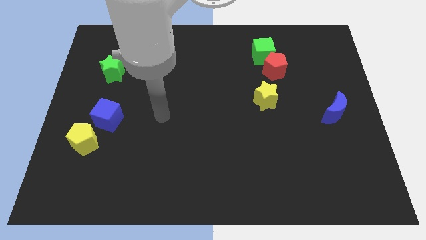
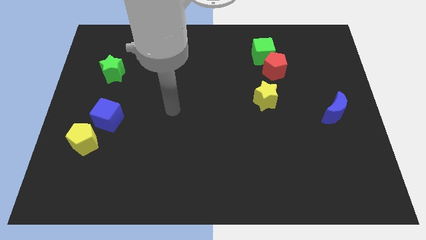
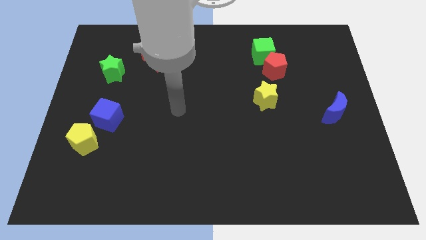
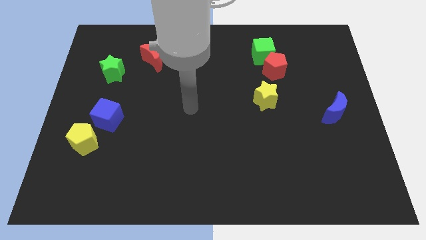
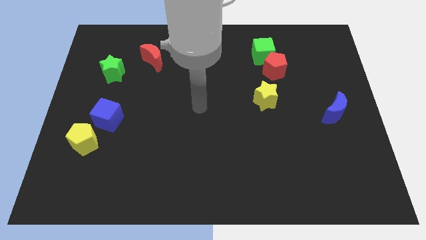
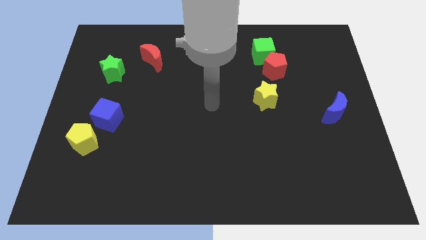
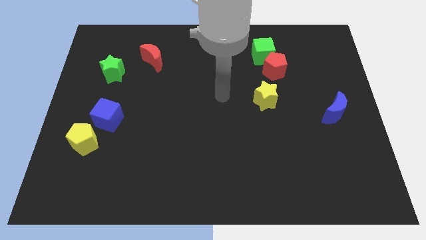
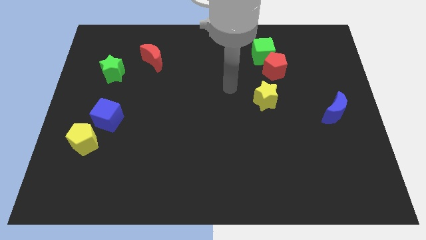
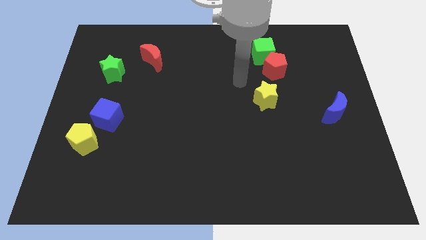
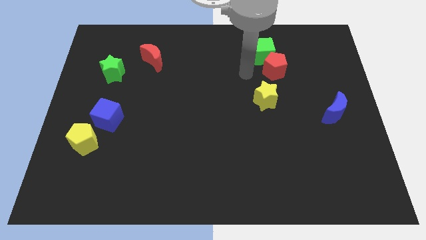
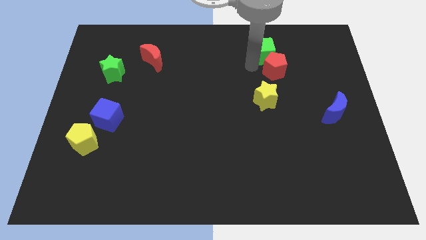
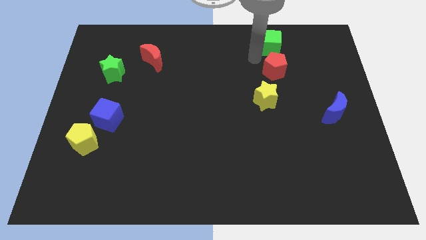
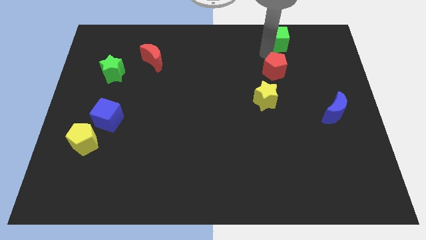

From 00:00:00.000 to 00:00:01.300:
pull the red pentagon apart from the green cube

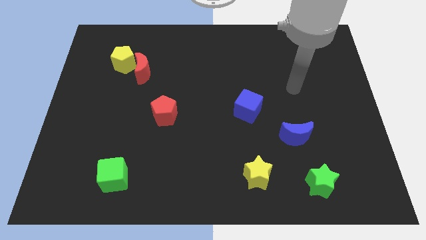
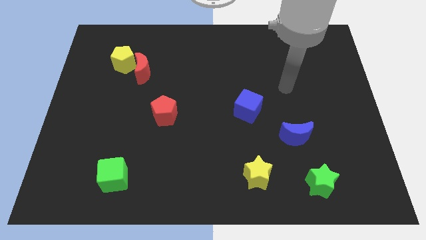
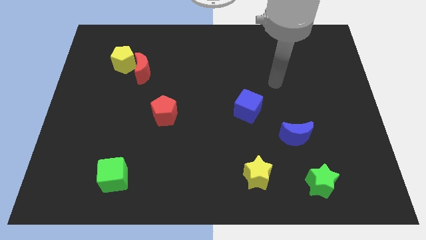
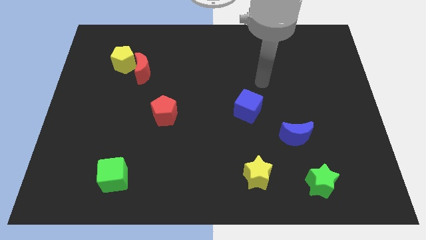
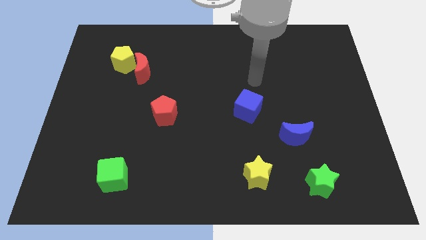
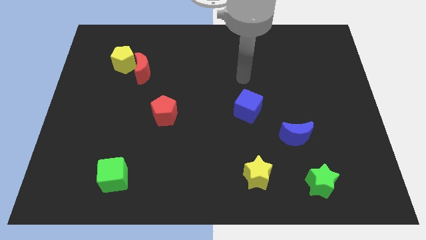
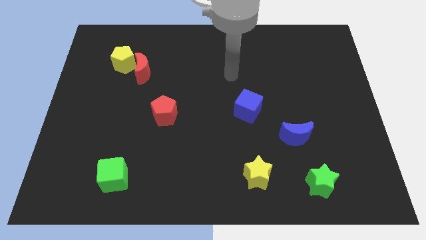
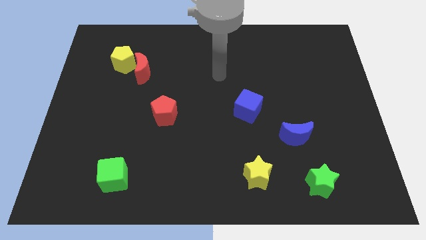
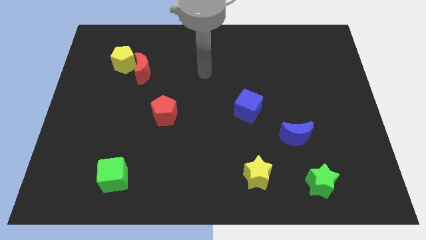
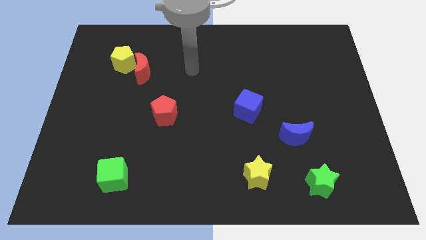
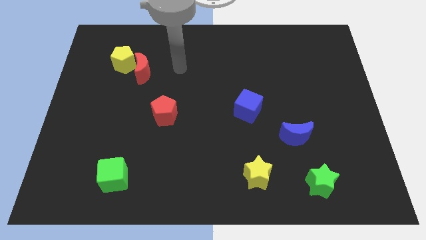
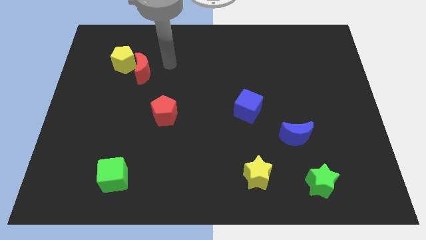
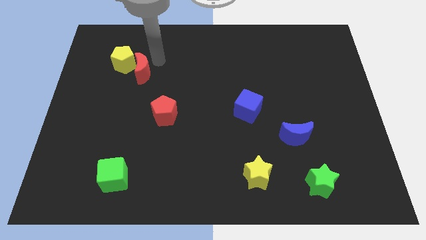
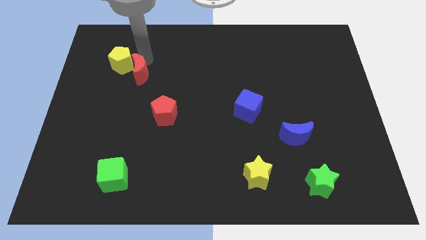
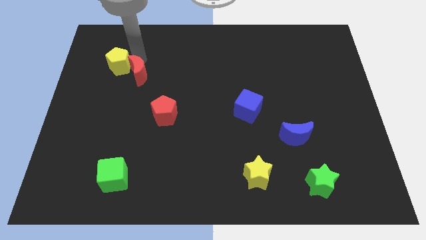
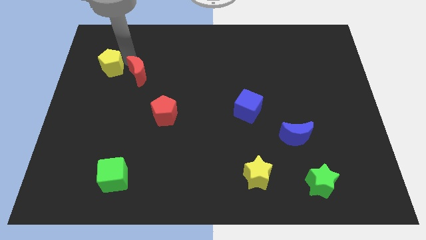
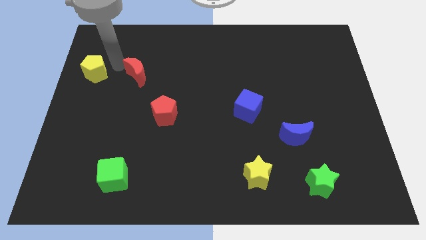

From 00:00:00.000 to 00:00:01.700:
move the red moon away from the yellow pentagon

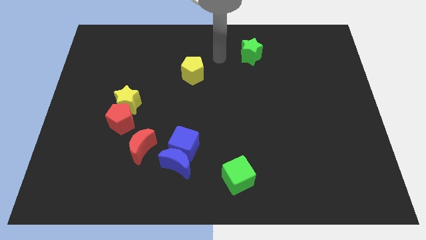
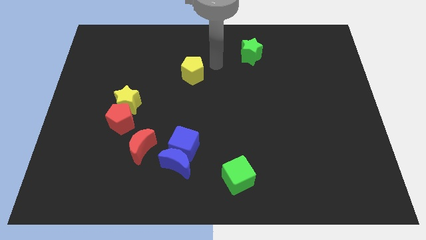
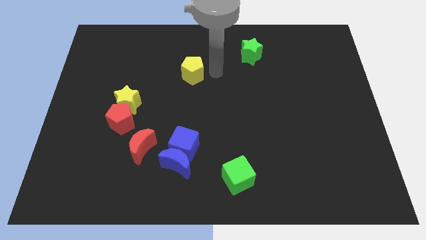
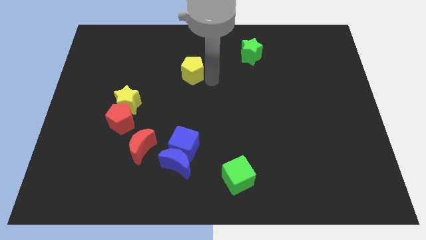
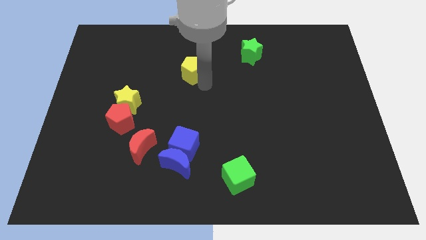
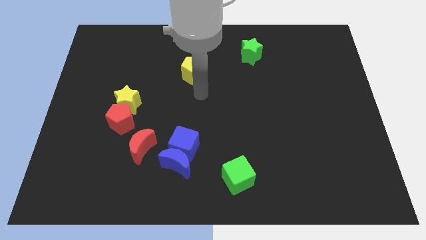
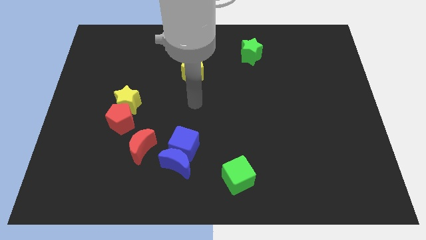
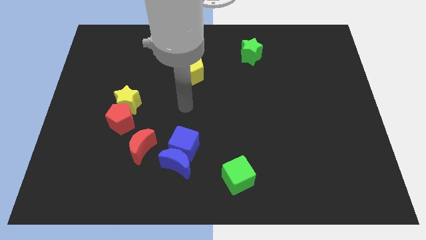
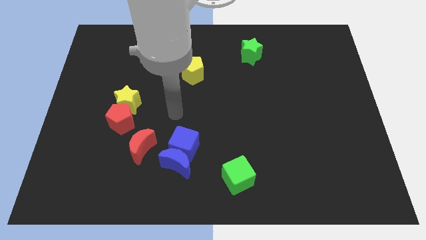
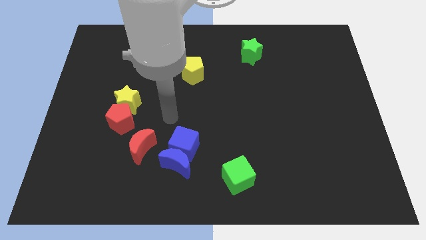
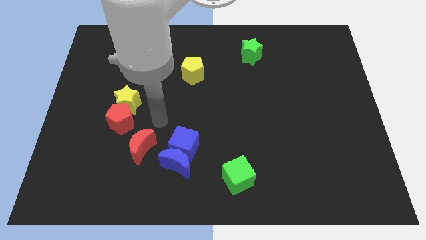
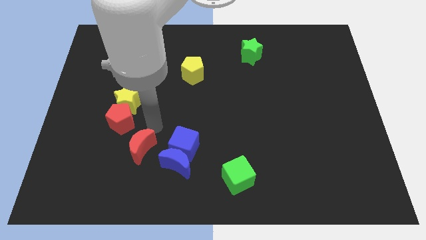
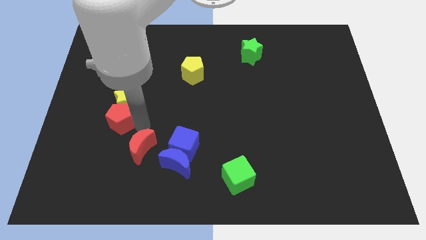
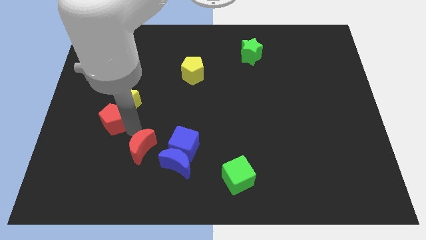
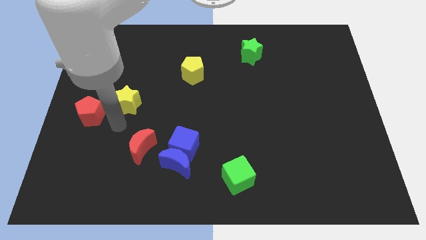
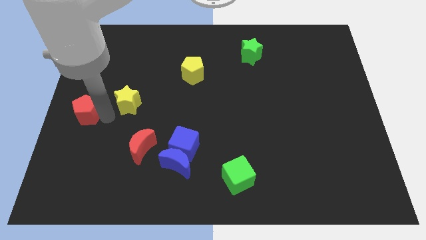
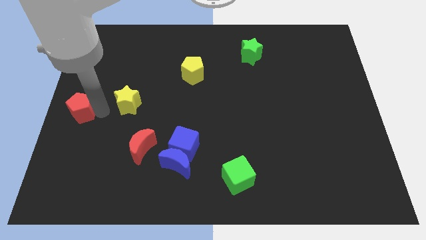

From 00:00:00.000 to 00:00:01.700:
separate the yellow star from the red pentagon

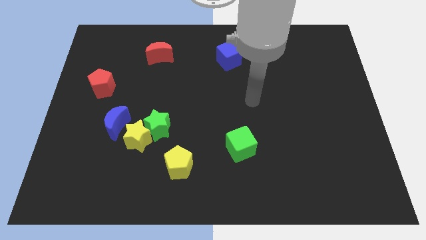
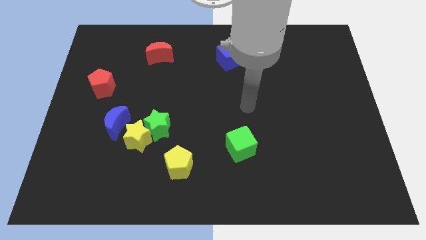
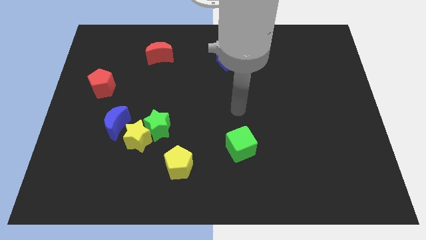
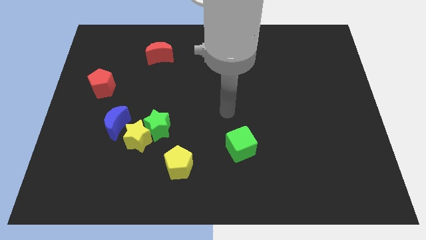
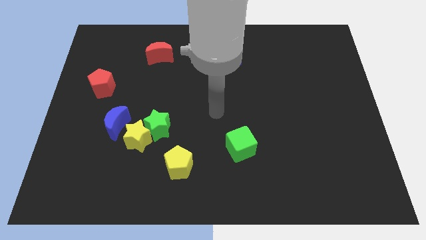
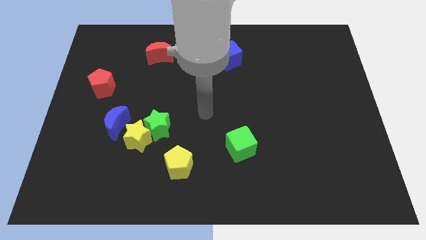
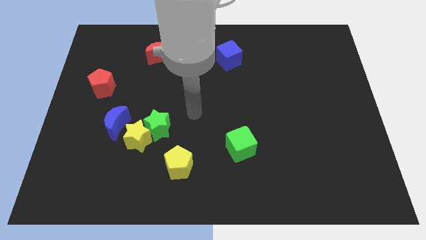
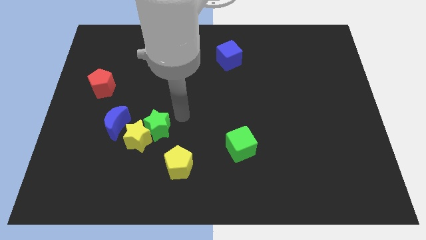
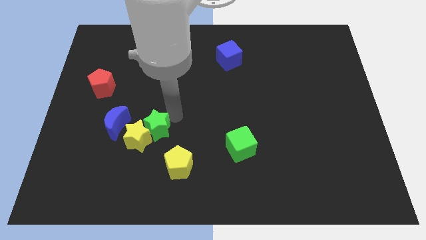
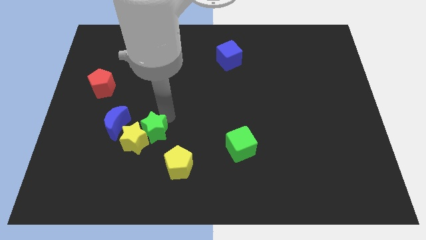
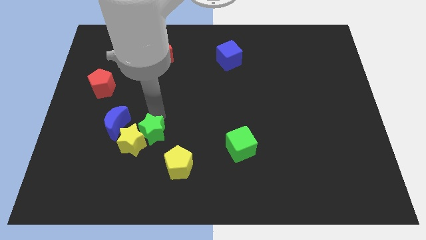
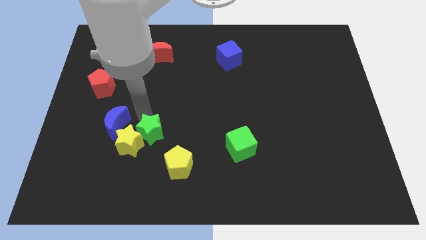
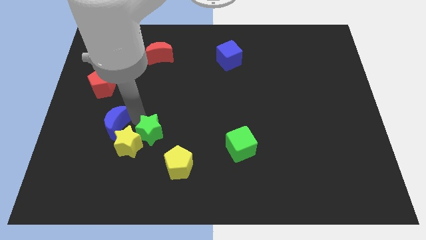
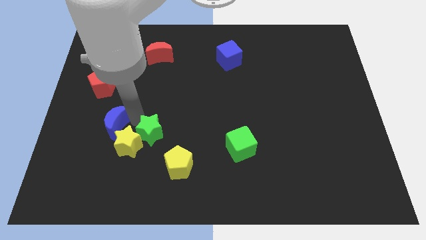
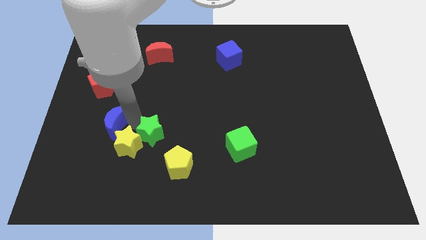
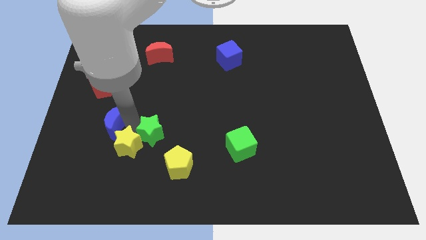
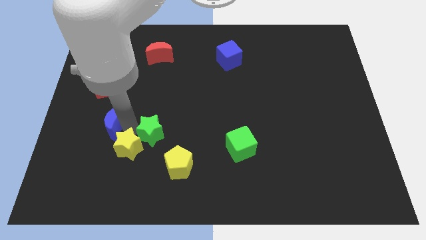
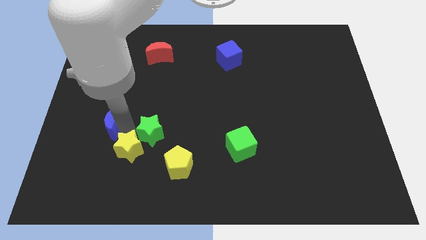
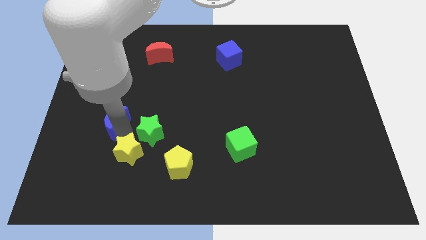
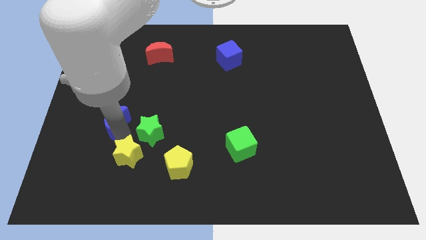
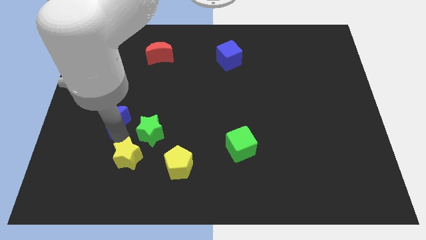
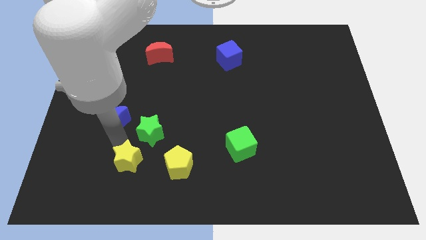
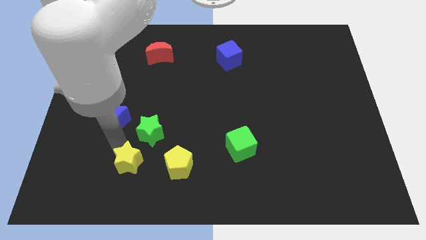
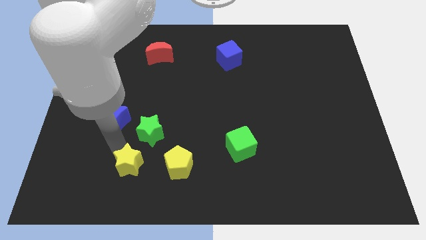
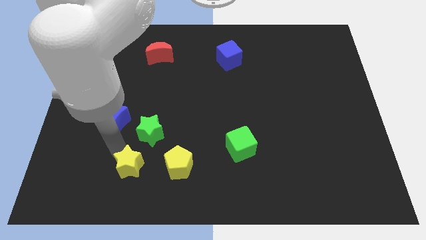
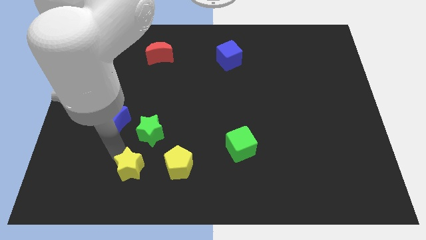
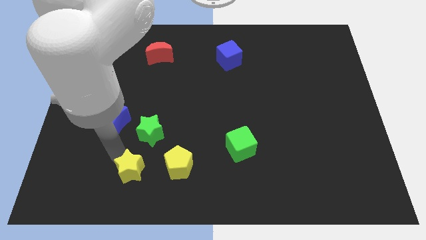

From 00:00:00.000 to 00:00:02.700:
pull the yellow star apart from the green star and blue moon

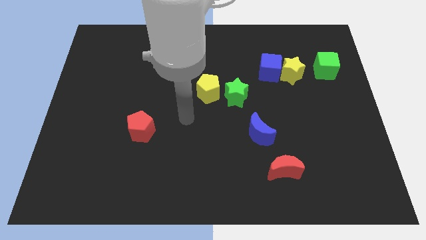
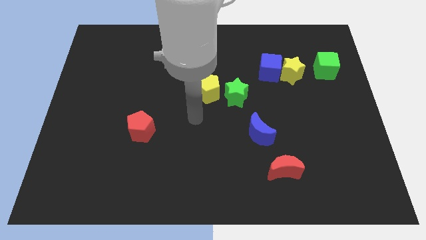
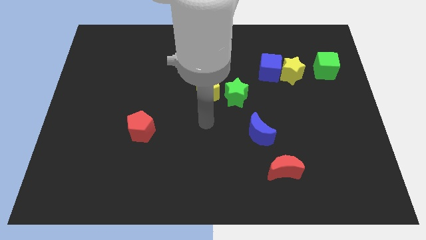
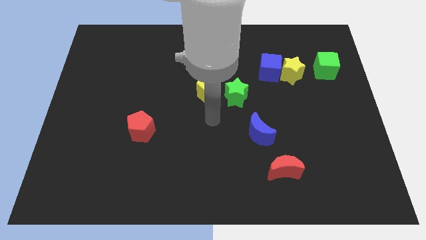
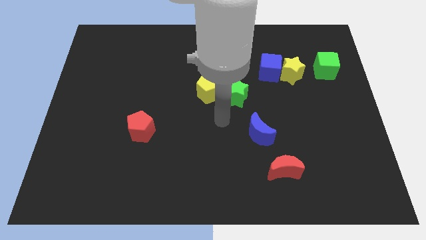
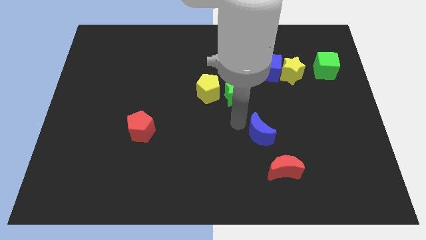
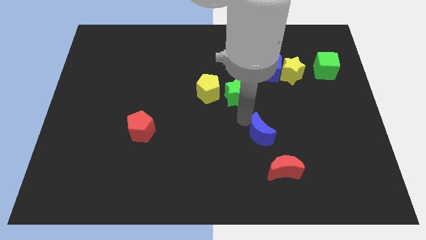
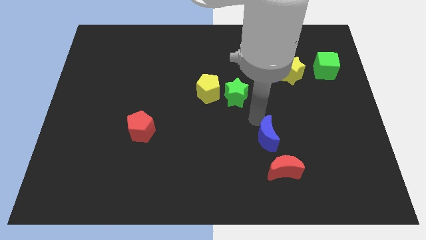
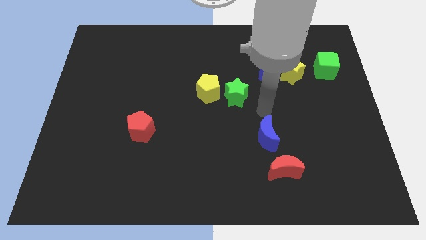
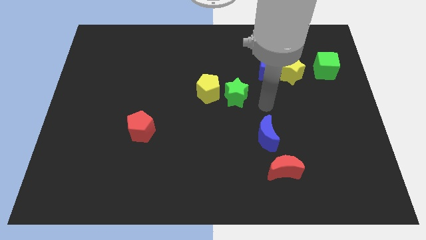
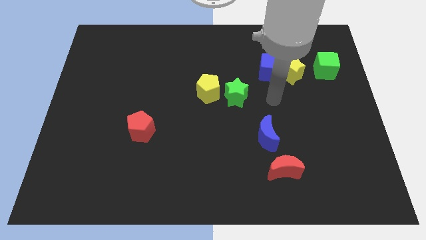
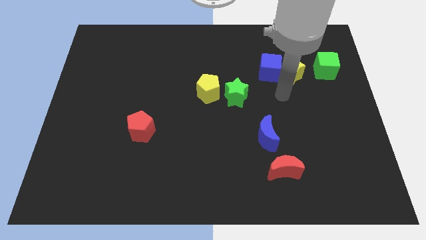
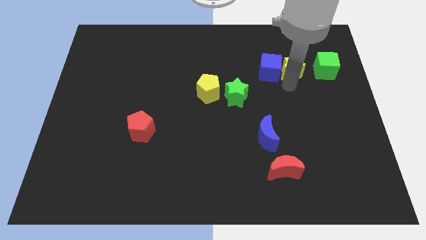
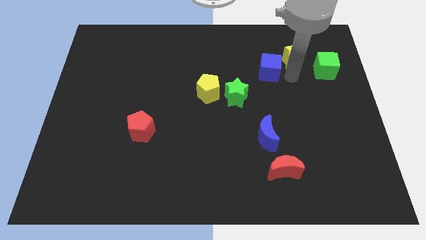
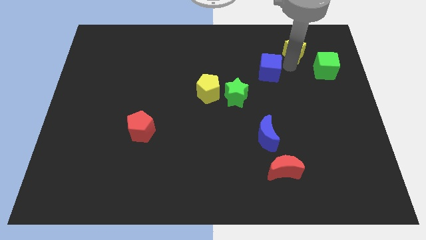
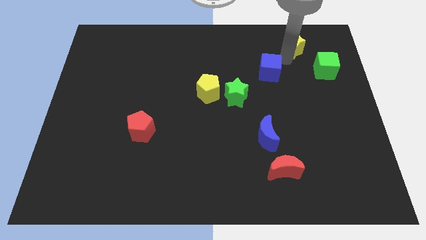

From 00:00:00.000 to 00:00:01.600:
separate the blue cube from the yellow star

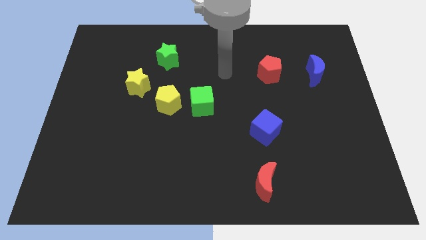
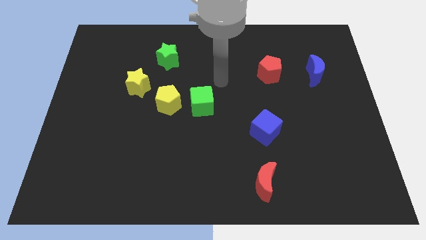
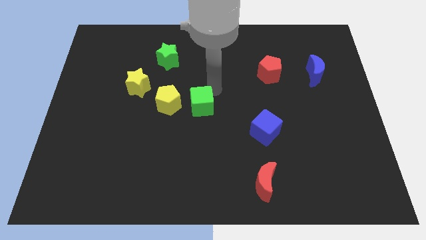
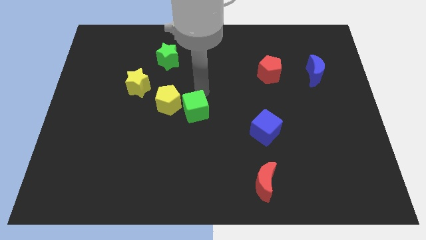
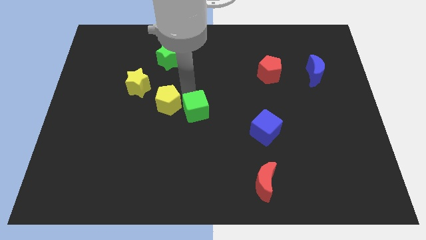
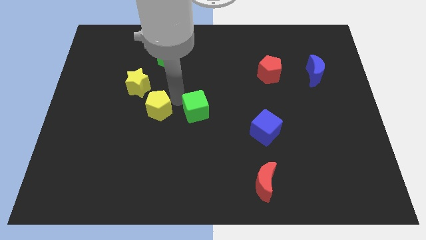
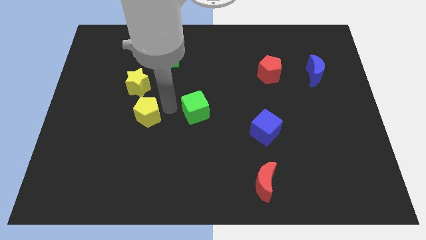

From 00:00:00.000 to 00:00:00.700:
separate the green cube from the yellow pentagon
